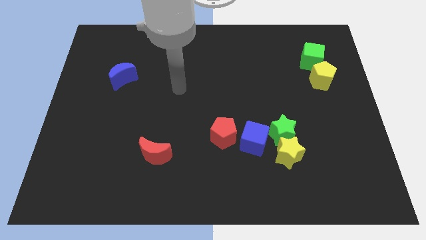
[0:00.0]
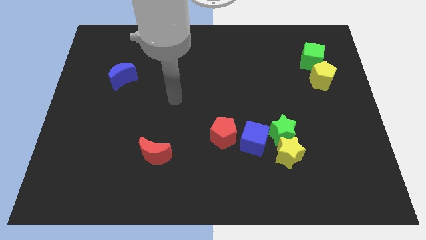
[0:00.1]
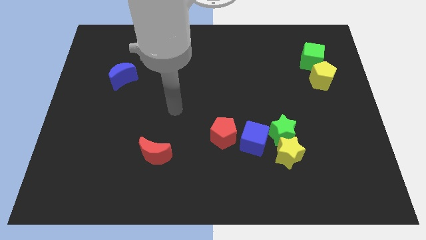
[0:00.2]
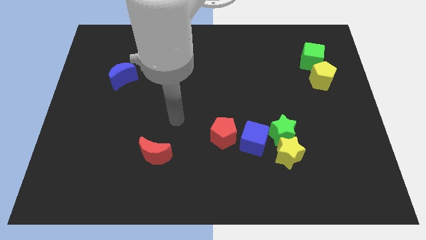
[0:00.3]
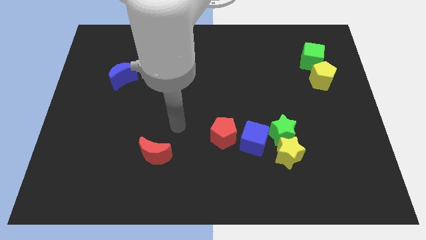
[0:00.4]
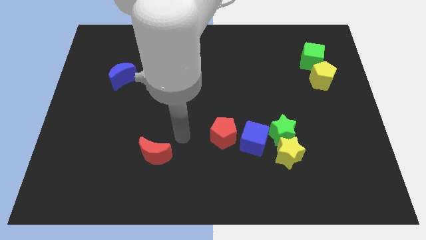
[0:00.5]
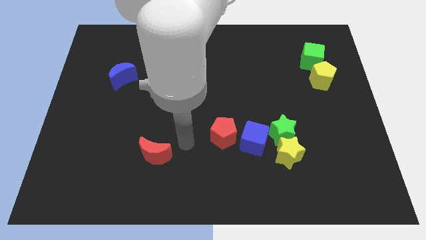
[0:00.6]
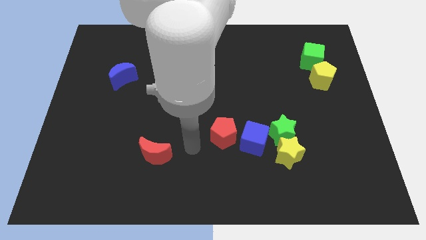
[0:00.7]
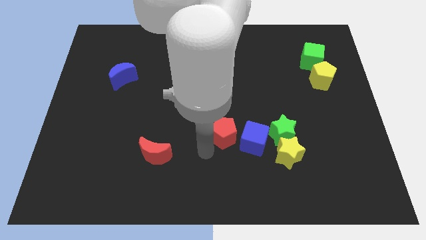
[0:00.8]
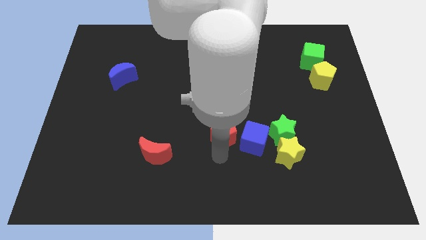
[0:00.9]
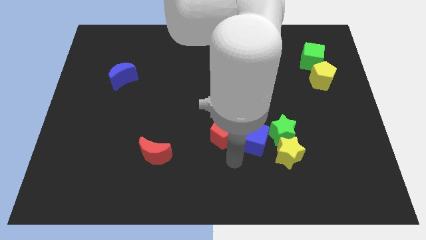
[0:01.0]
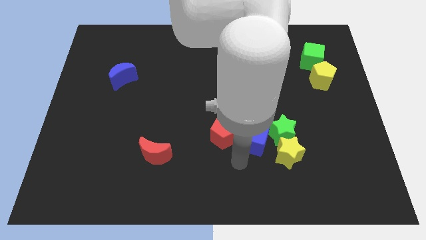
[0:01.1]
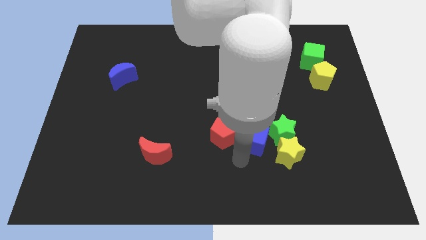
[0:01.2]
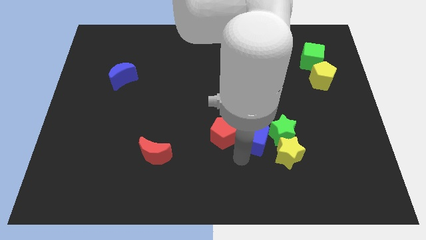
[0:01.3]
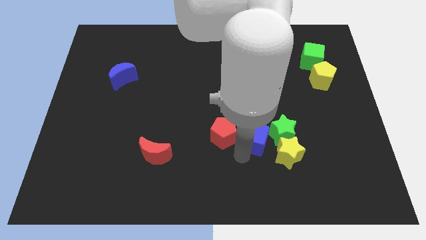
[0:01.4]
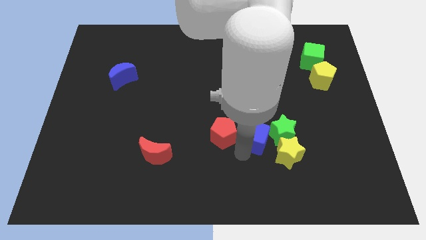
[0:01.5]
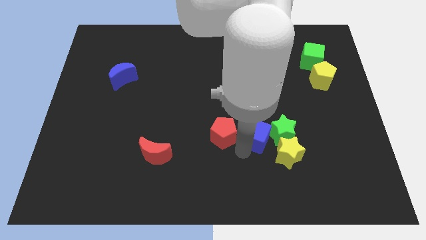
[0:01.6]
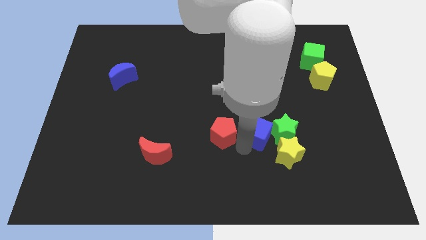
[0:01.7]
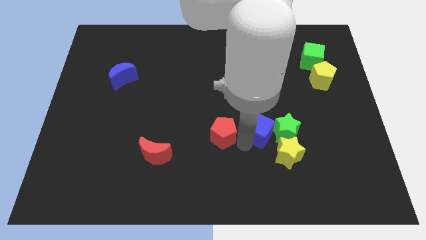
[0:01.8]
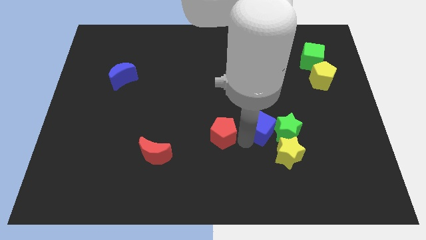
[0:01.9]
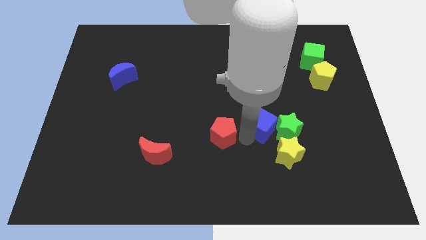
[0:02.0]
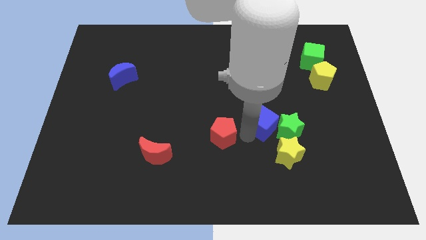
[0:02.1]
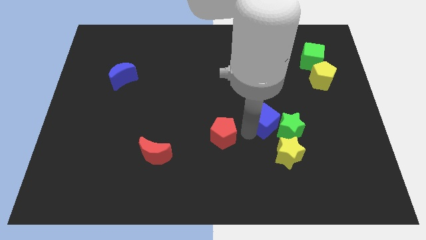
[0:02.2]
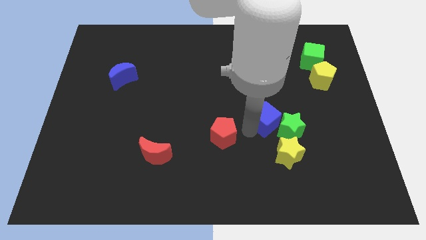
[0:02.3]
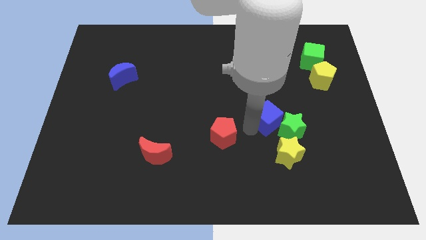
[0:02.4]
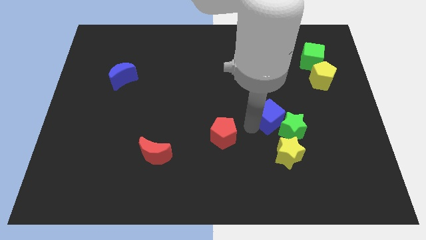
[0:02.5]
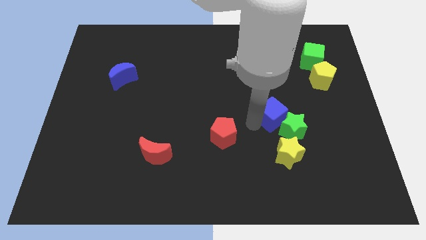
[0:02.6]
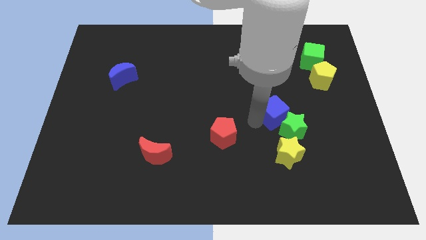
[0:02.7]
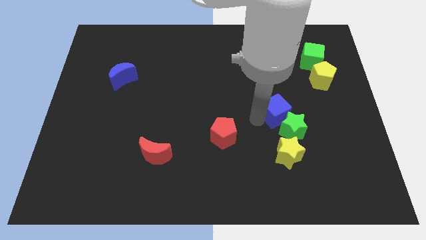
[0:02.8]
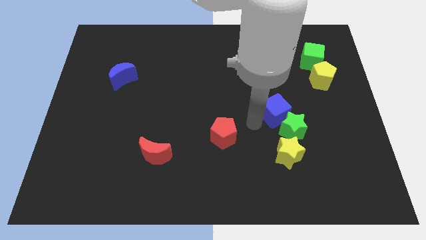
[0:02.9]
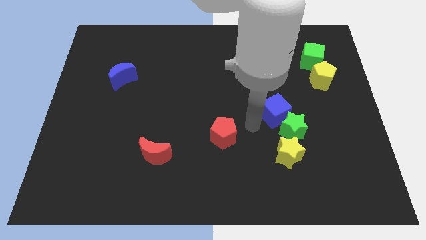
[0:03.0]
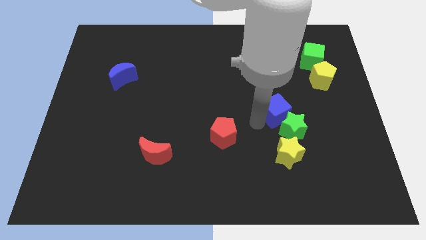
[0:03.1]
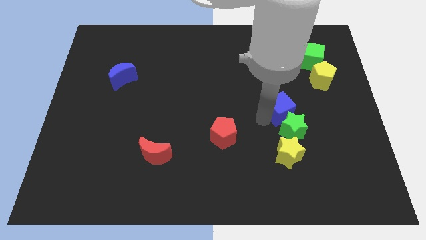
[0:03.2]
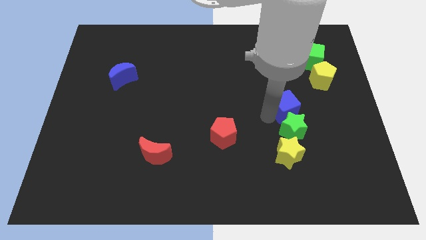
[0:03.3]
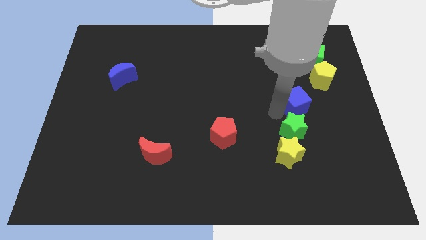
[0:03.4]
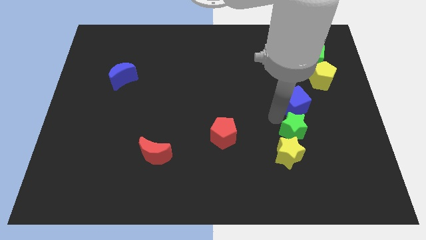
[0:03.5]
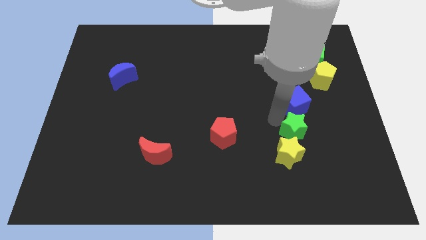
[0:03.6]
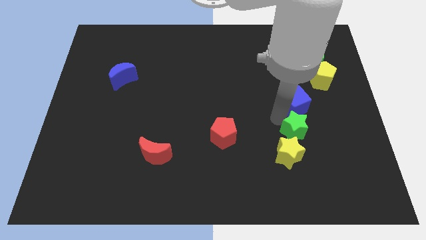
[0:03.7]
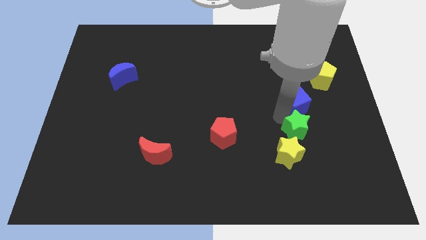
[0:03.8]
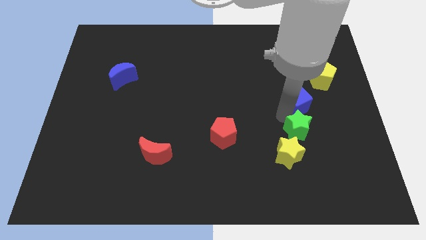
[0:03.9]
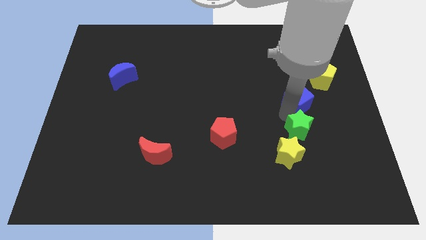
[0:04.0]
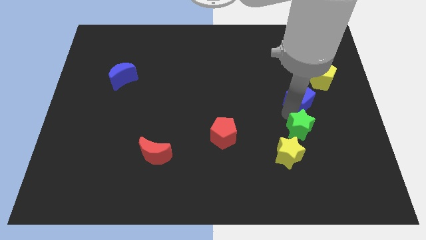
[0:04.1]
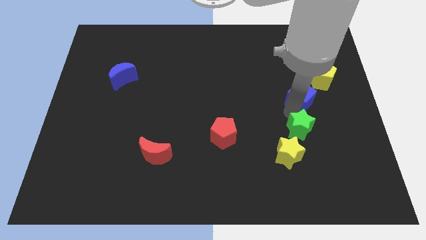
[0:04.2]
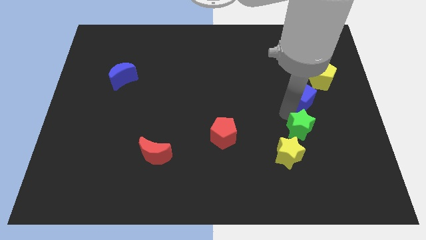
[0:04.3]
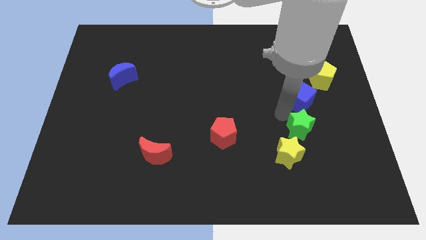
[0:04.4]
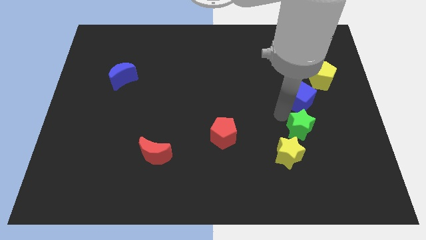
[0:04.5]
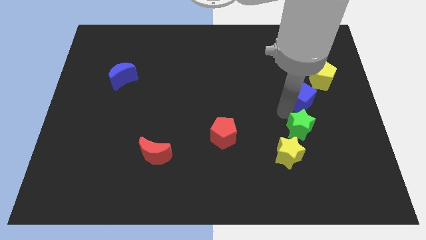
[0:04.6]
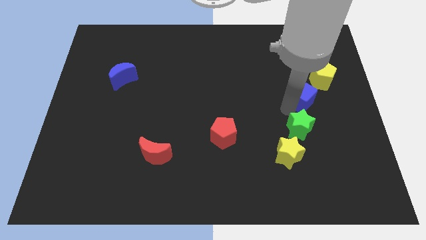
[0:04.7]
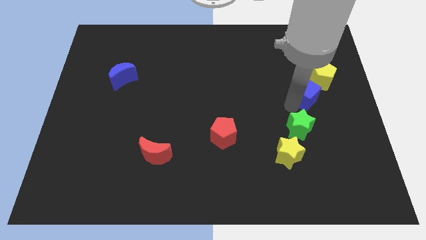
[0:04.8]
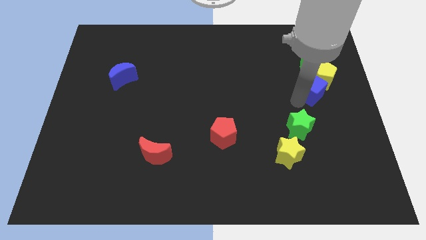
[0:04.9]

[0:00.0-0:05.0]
push the blue cube close to the yellow pentagon

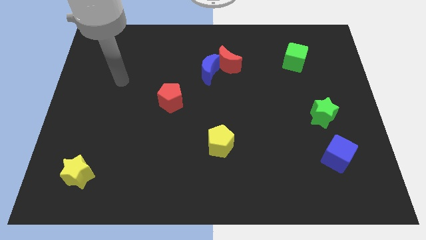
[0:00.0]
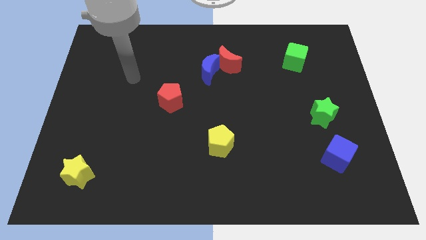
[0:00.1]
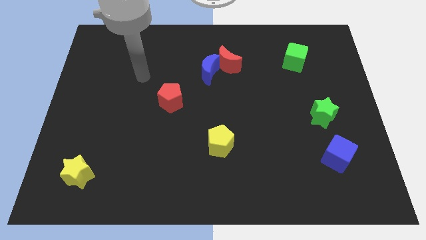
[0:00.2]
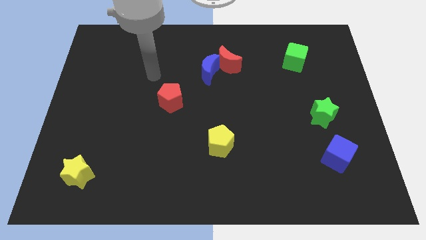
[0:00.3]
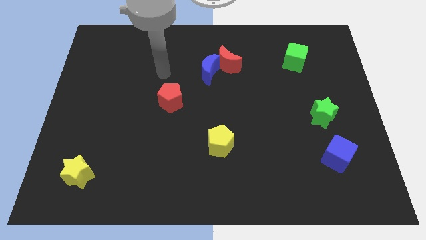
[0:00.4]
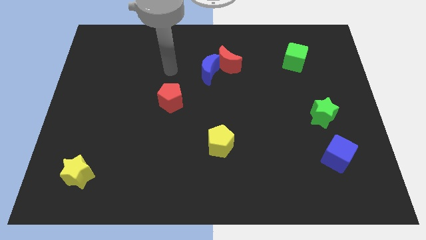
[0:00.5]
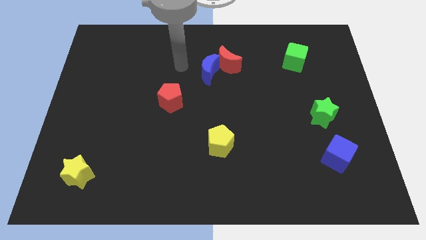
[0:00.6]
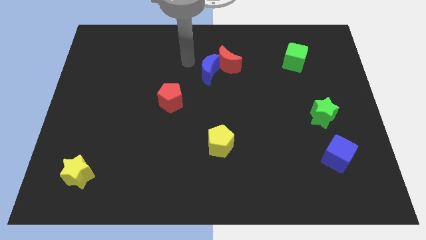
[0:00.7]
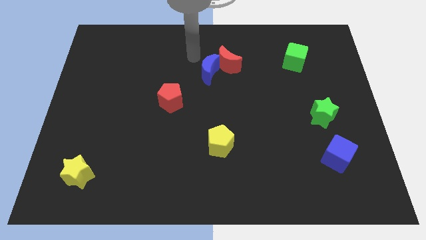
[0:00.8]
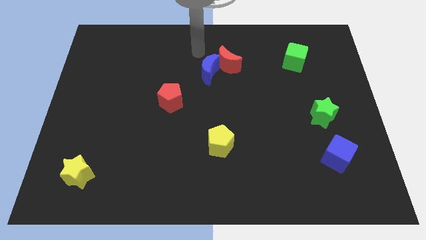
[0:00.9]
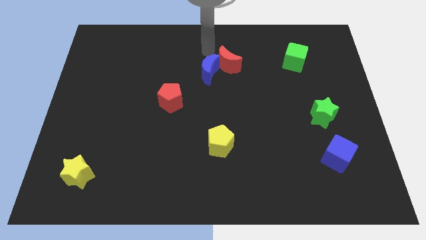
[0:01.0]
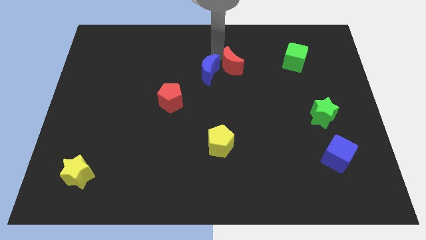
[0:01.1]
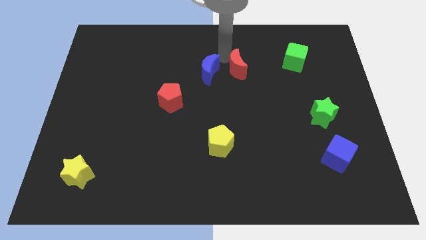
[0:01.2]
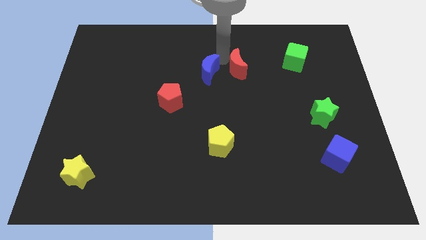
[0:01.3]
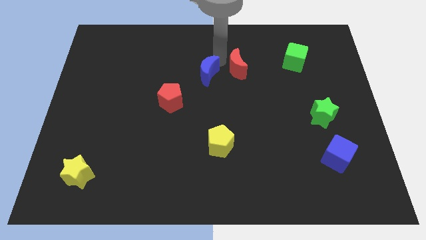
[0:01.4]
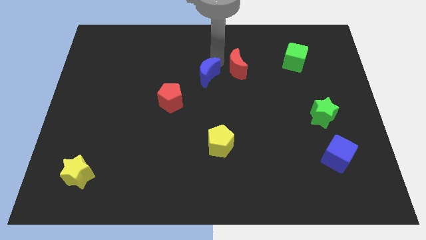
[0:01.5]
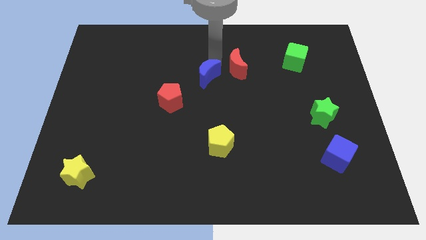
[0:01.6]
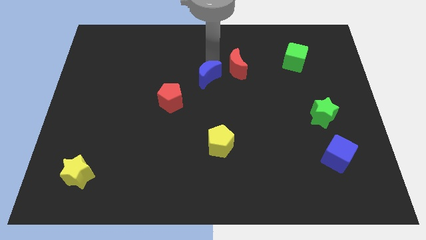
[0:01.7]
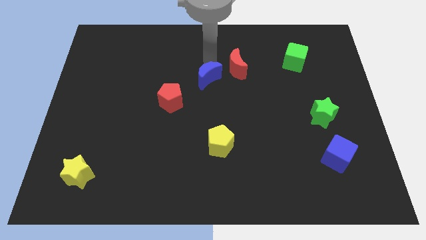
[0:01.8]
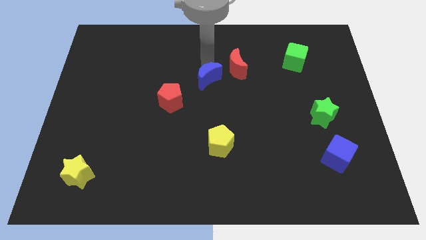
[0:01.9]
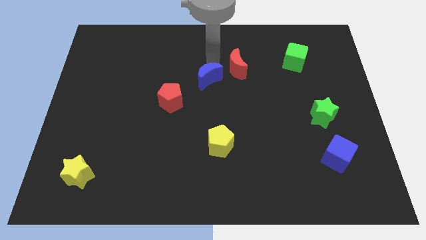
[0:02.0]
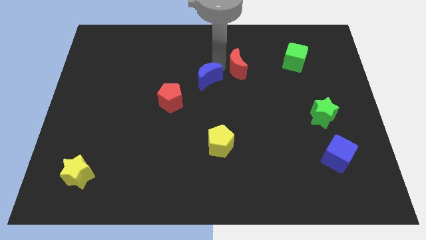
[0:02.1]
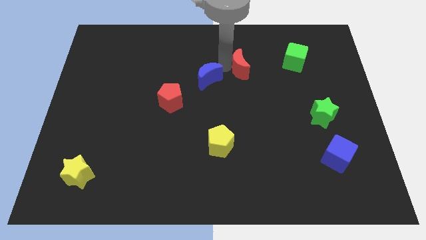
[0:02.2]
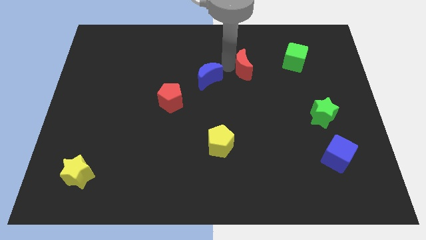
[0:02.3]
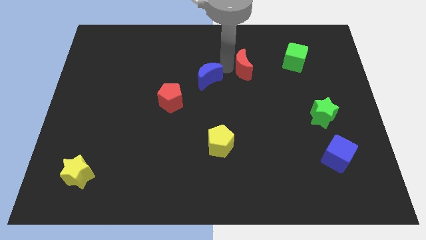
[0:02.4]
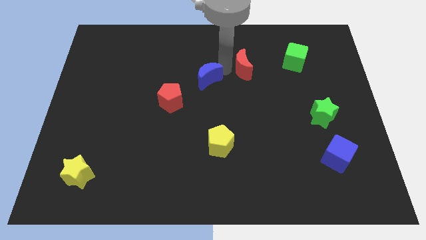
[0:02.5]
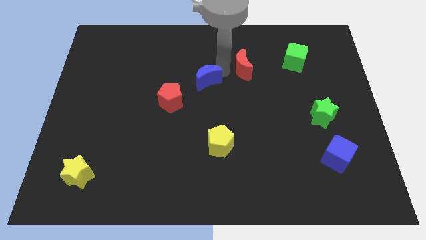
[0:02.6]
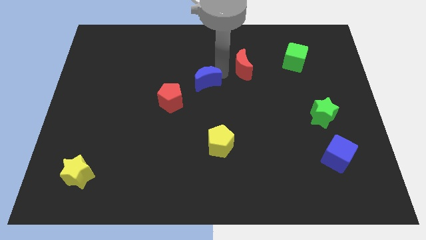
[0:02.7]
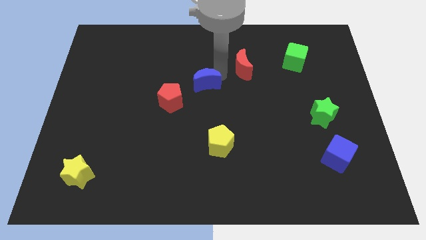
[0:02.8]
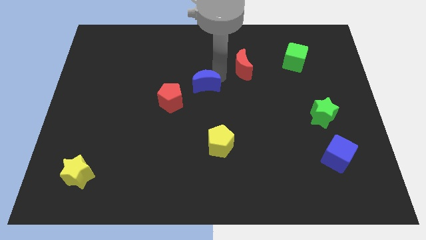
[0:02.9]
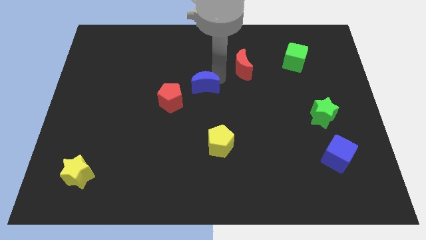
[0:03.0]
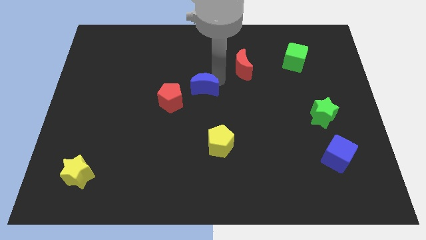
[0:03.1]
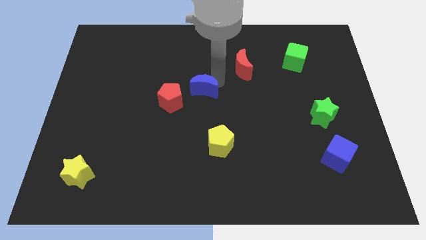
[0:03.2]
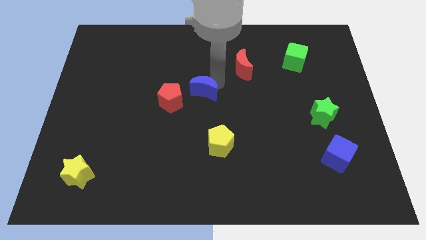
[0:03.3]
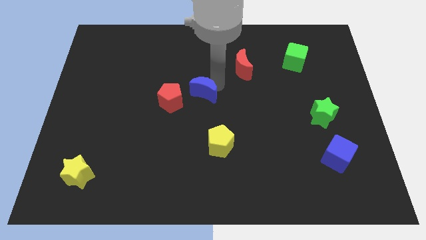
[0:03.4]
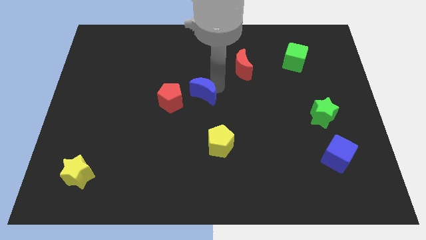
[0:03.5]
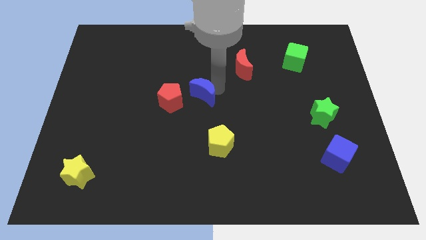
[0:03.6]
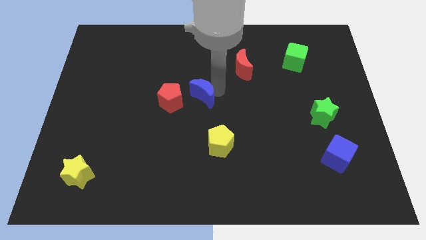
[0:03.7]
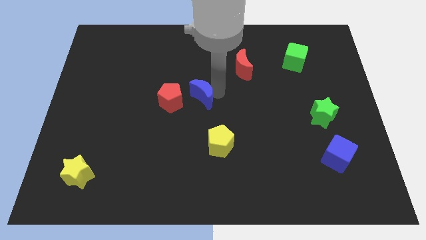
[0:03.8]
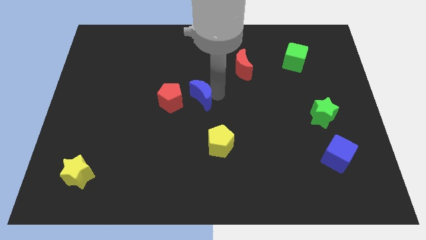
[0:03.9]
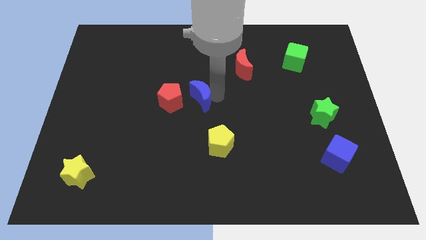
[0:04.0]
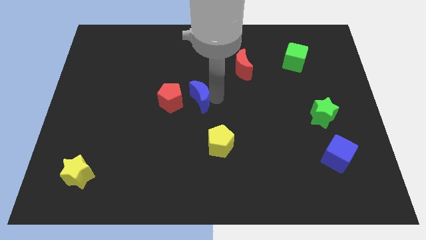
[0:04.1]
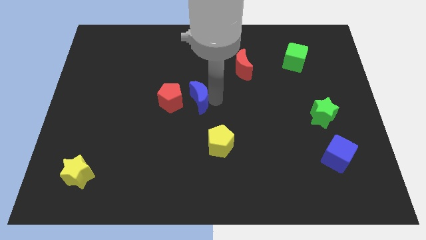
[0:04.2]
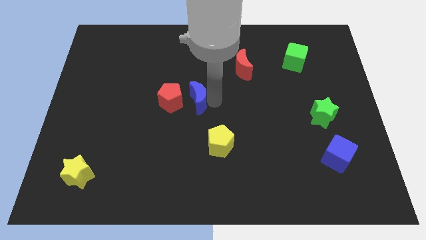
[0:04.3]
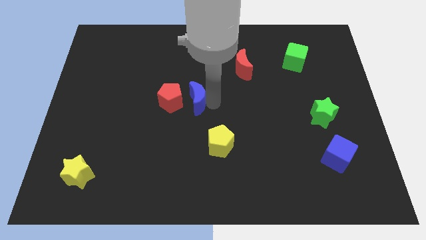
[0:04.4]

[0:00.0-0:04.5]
slide the blue moon next to the red pentagon
